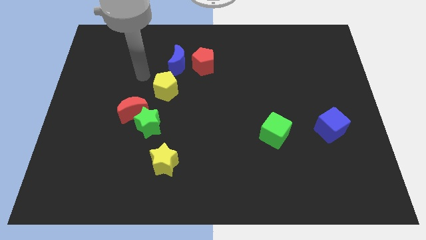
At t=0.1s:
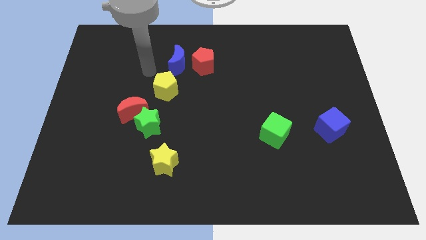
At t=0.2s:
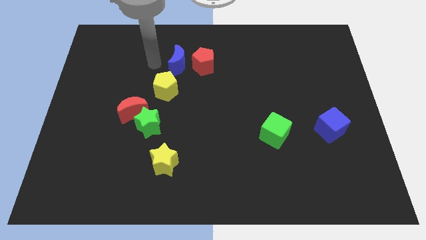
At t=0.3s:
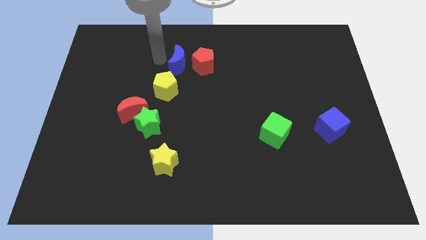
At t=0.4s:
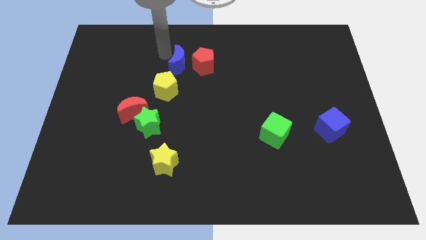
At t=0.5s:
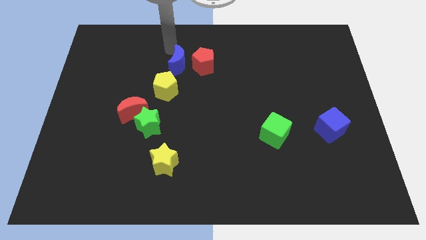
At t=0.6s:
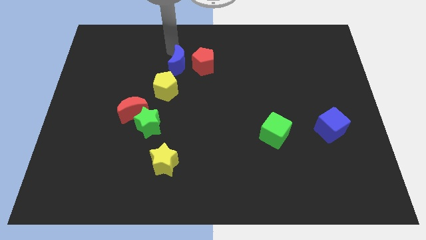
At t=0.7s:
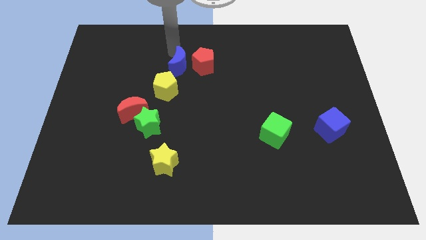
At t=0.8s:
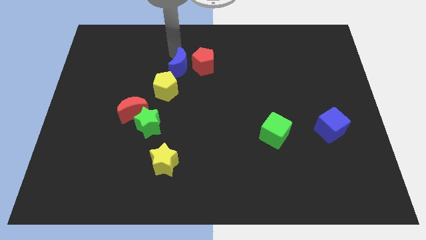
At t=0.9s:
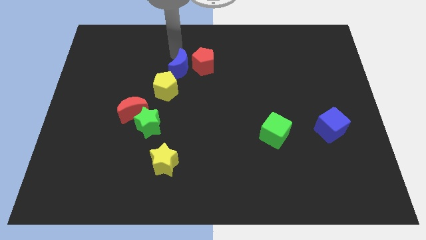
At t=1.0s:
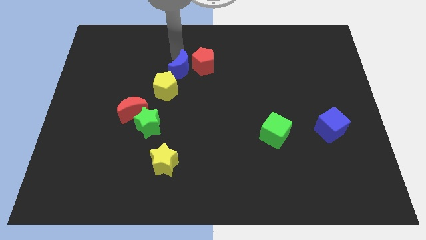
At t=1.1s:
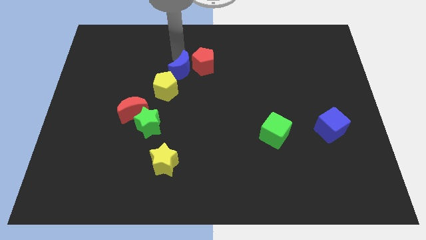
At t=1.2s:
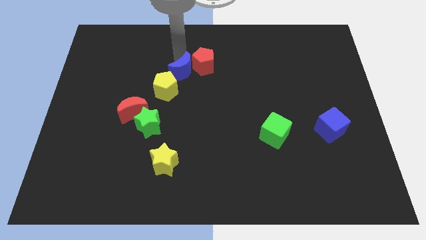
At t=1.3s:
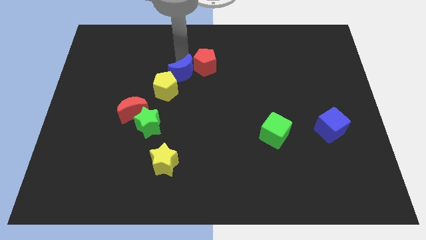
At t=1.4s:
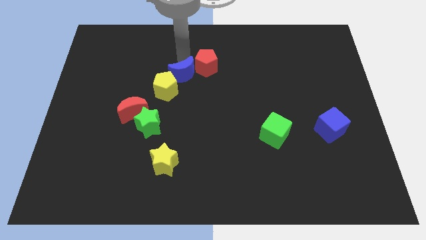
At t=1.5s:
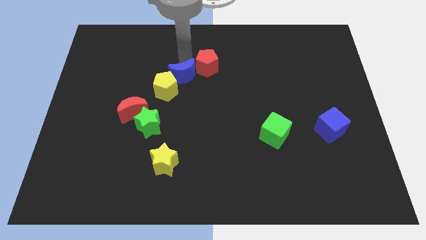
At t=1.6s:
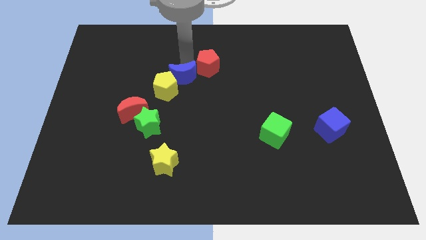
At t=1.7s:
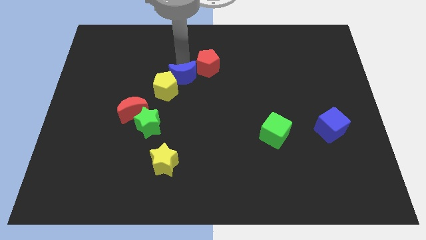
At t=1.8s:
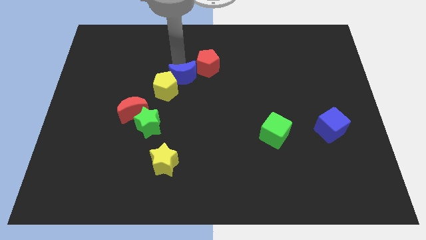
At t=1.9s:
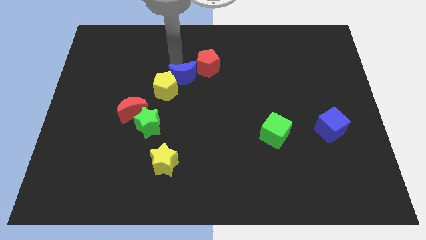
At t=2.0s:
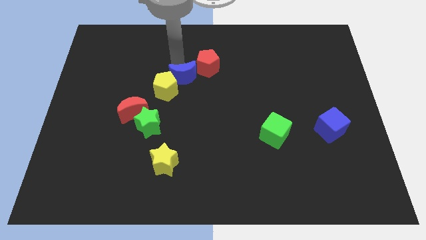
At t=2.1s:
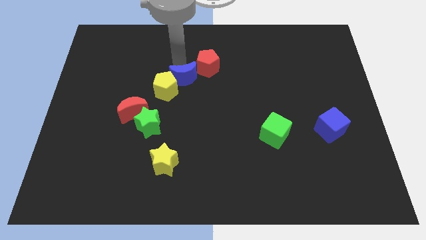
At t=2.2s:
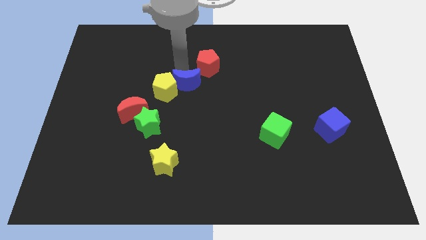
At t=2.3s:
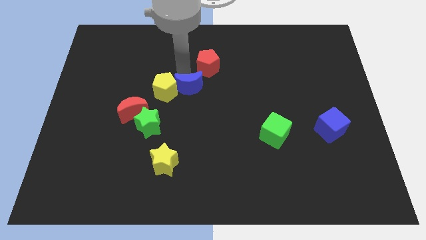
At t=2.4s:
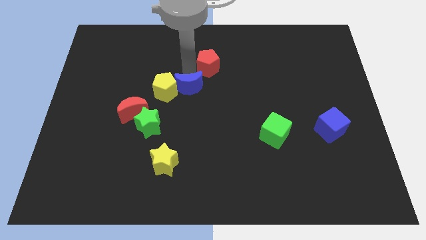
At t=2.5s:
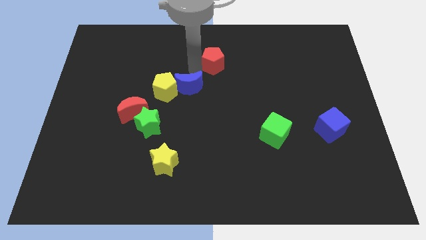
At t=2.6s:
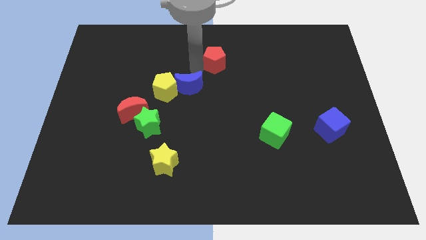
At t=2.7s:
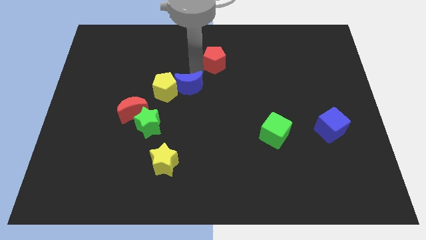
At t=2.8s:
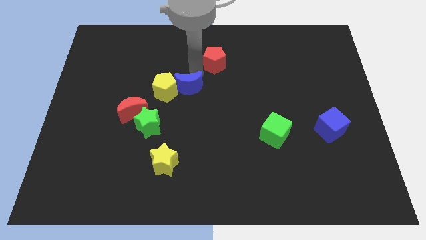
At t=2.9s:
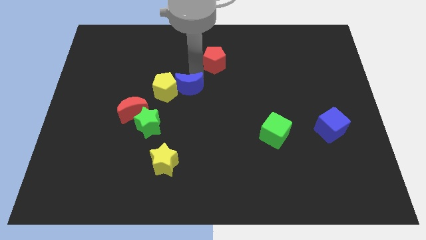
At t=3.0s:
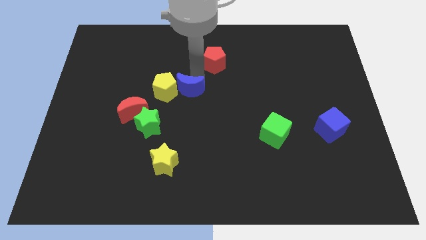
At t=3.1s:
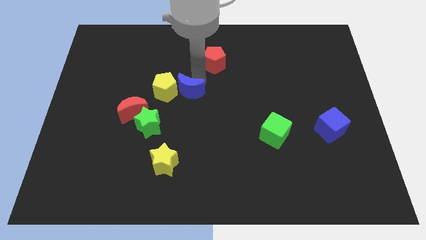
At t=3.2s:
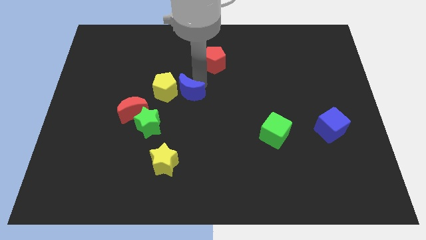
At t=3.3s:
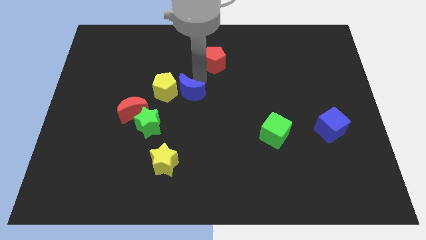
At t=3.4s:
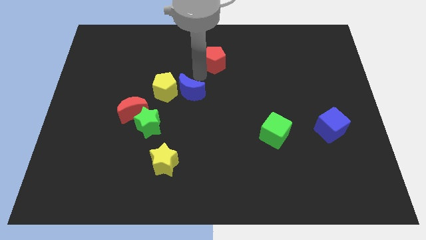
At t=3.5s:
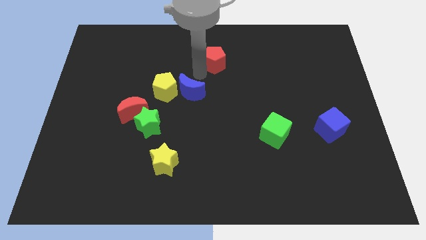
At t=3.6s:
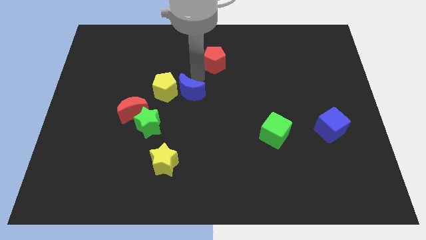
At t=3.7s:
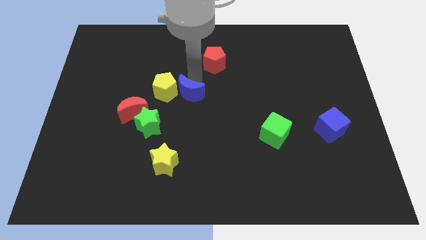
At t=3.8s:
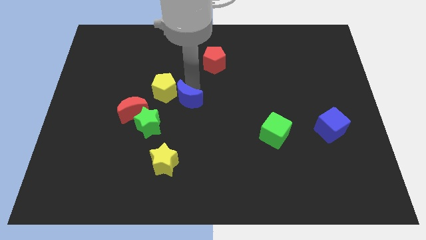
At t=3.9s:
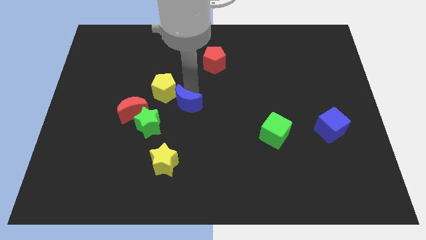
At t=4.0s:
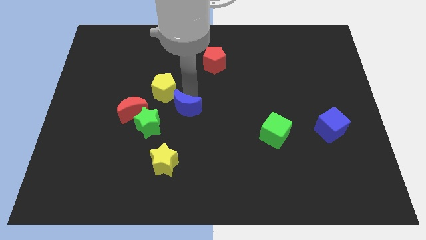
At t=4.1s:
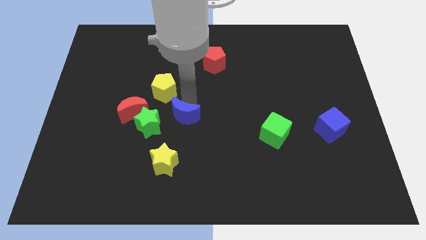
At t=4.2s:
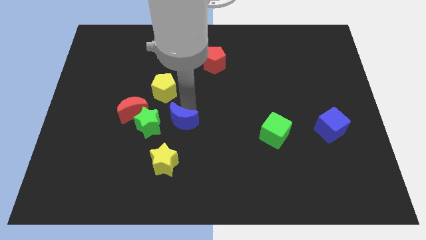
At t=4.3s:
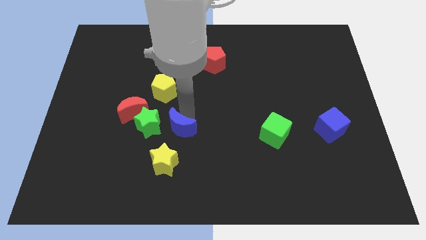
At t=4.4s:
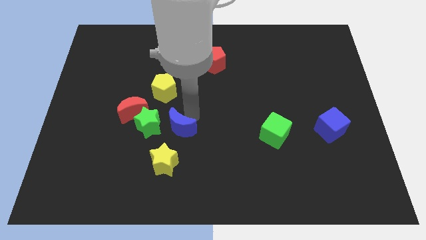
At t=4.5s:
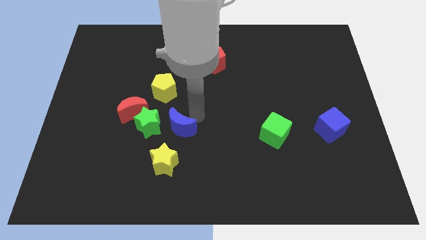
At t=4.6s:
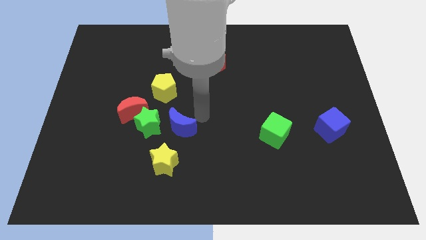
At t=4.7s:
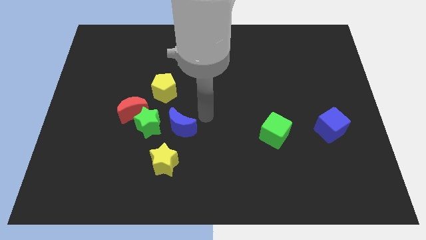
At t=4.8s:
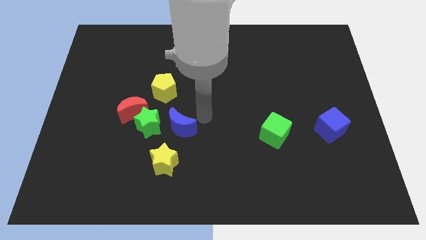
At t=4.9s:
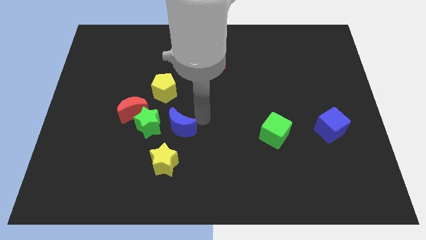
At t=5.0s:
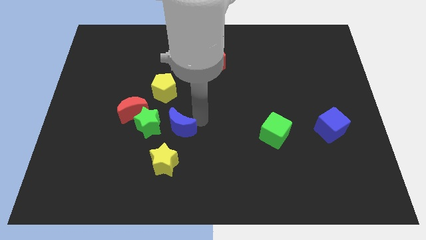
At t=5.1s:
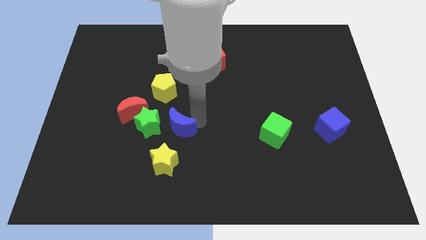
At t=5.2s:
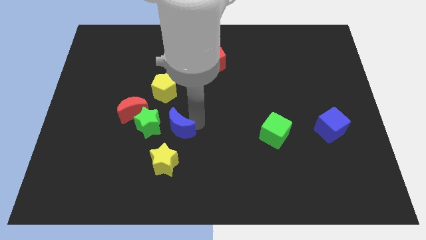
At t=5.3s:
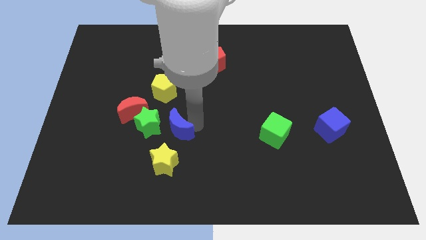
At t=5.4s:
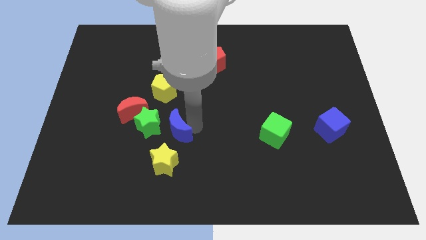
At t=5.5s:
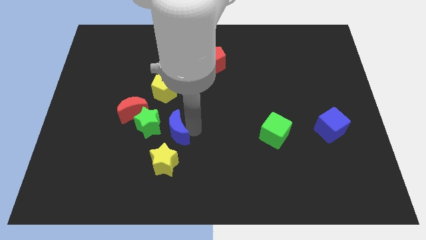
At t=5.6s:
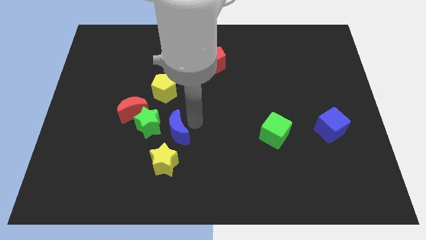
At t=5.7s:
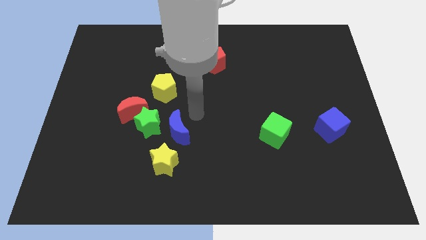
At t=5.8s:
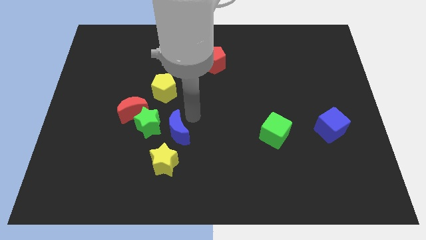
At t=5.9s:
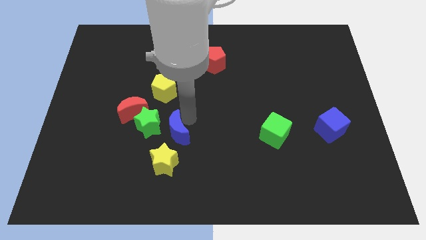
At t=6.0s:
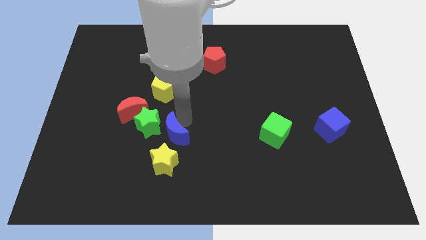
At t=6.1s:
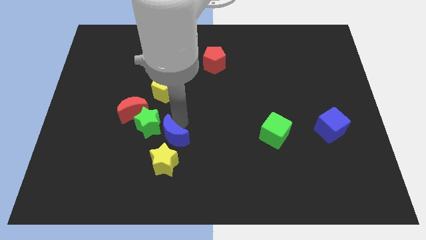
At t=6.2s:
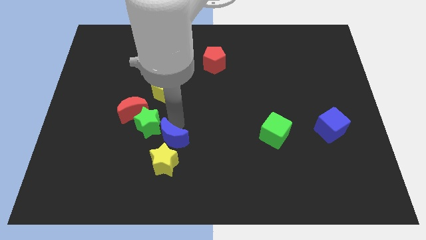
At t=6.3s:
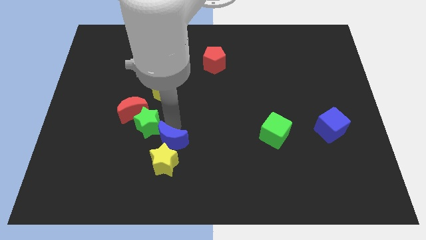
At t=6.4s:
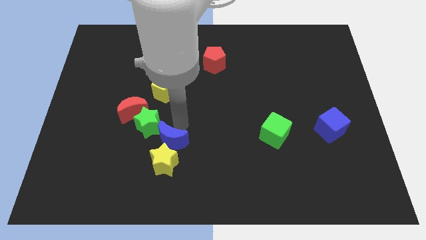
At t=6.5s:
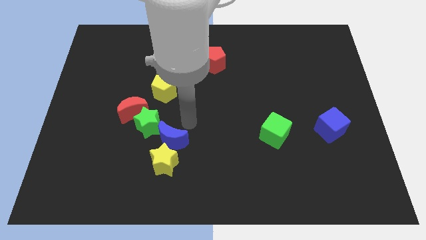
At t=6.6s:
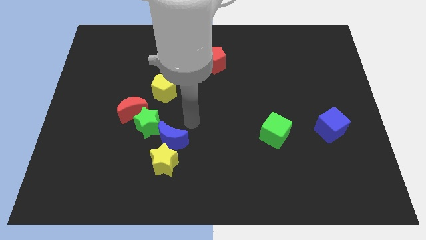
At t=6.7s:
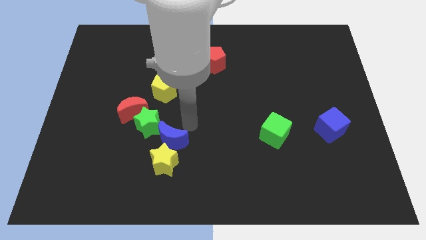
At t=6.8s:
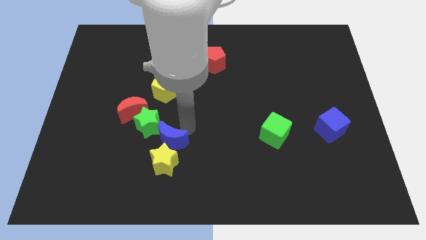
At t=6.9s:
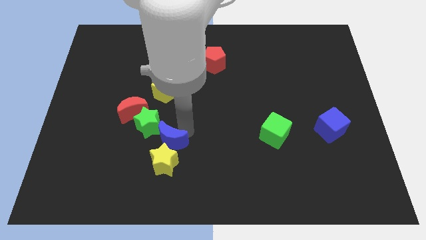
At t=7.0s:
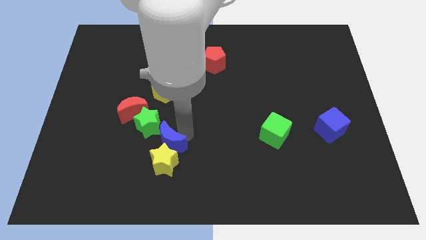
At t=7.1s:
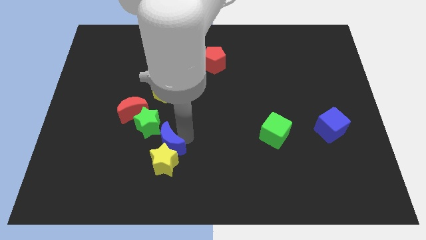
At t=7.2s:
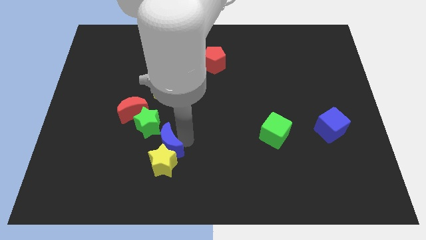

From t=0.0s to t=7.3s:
put the blue moon to the bottom of the green star
